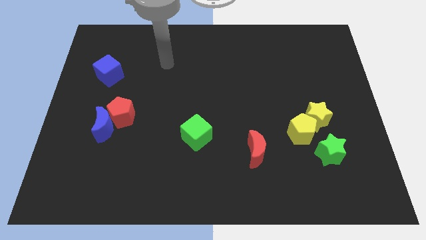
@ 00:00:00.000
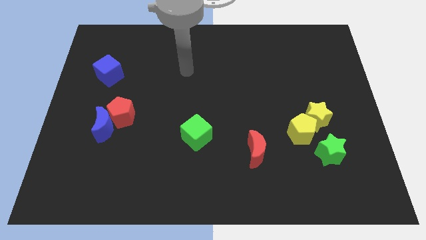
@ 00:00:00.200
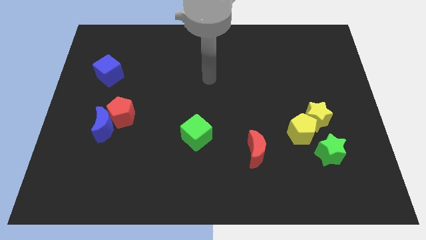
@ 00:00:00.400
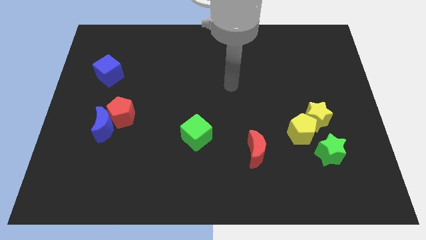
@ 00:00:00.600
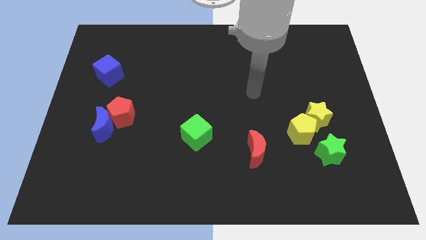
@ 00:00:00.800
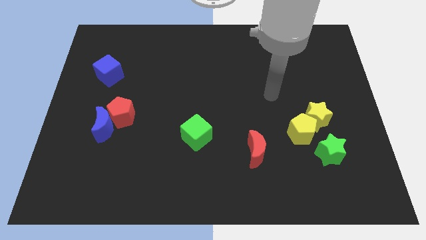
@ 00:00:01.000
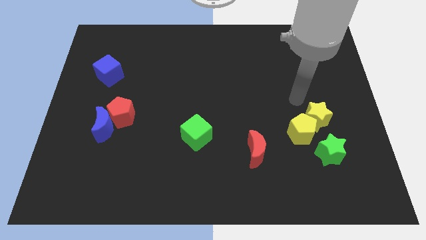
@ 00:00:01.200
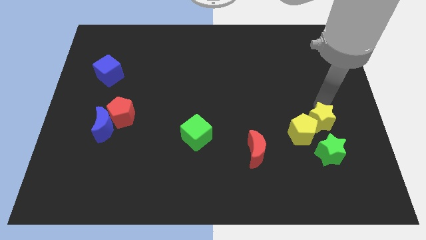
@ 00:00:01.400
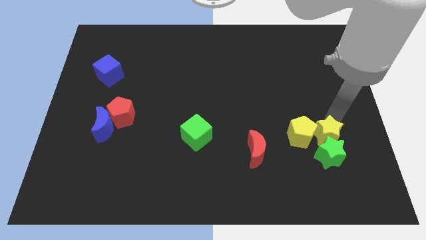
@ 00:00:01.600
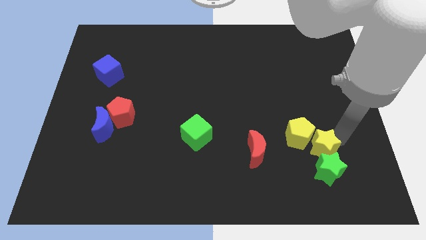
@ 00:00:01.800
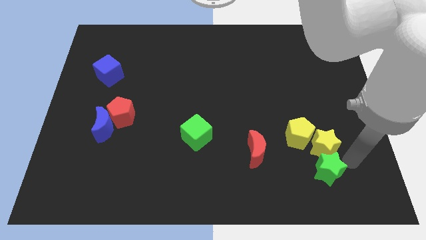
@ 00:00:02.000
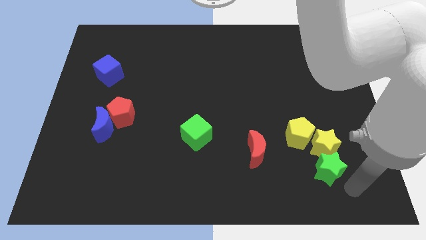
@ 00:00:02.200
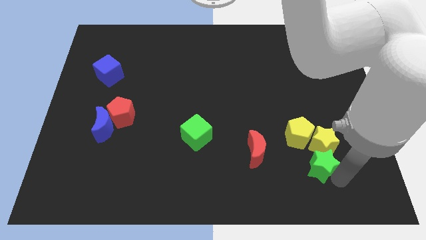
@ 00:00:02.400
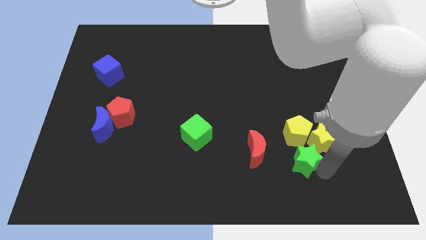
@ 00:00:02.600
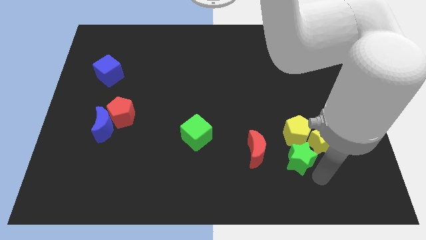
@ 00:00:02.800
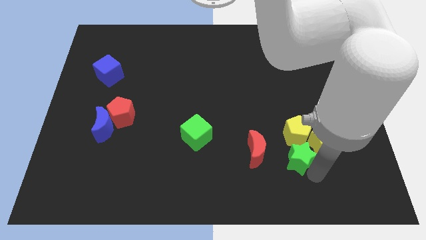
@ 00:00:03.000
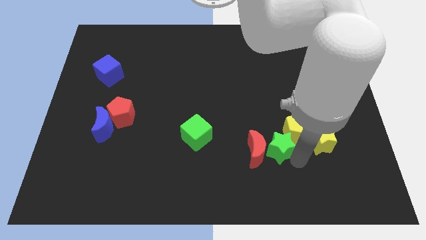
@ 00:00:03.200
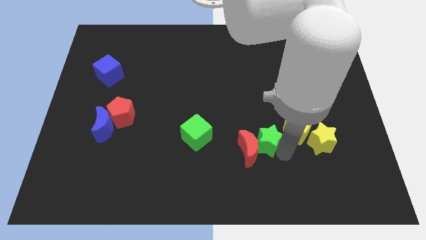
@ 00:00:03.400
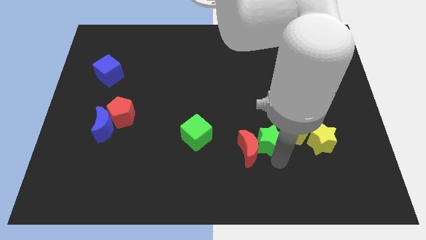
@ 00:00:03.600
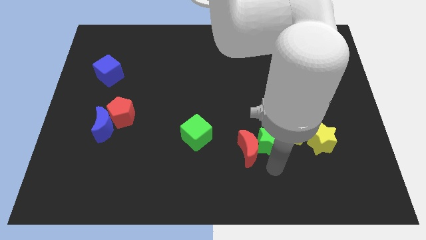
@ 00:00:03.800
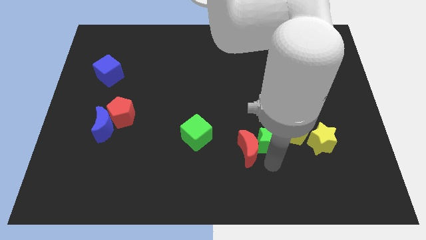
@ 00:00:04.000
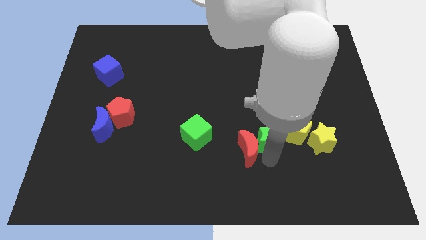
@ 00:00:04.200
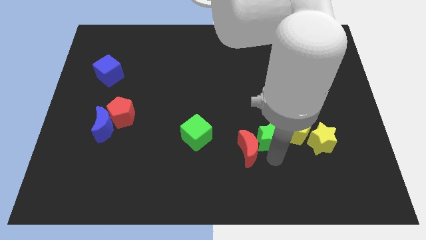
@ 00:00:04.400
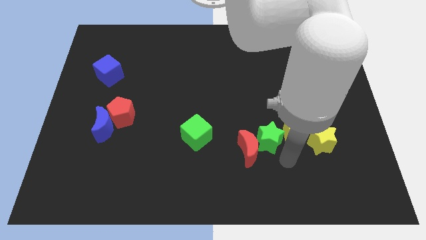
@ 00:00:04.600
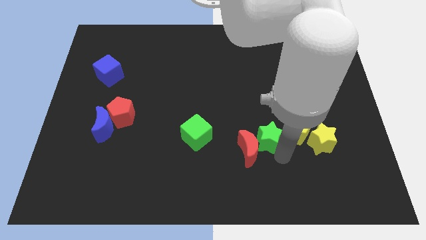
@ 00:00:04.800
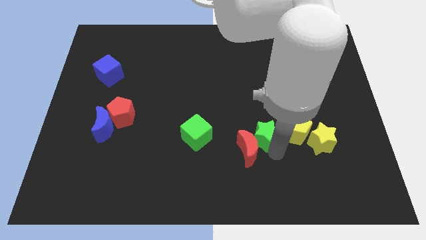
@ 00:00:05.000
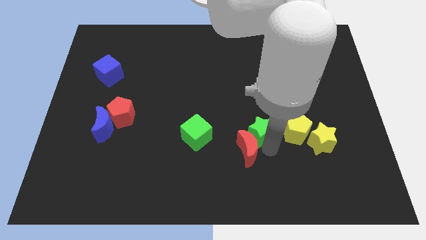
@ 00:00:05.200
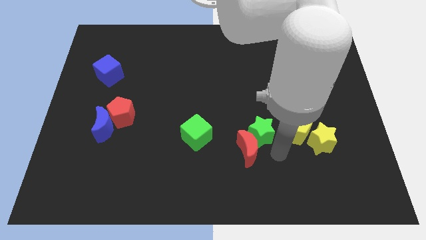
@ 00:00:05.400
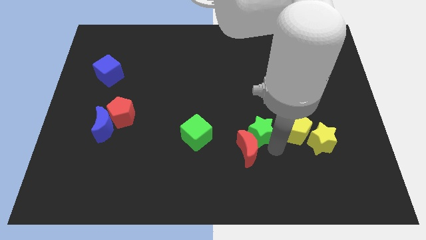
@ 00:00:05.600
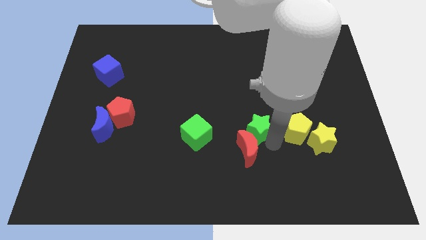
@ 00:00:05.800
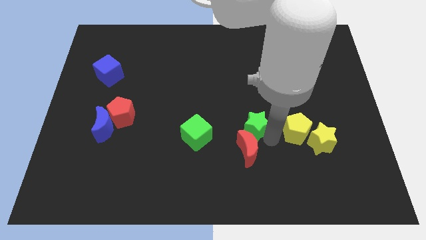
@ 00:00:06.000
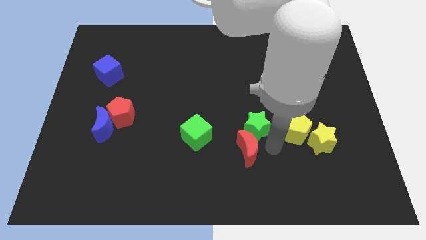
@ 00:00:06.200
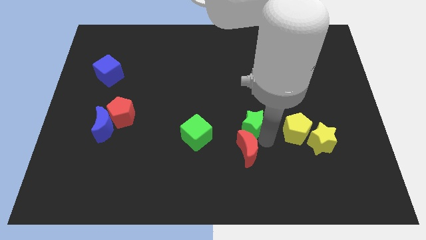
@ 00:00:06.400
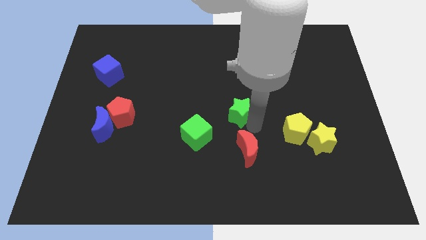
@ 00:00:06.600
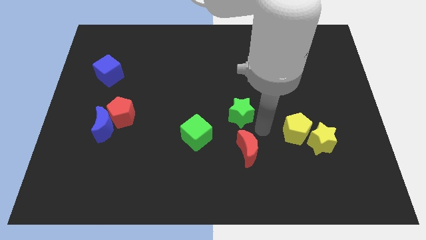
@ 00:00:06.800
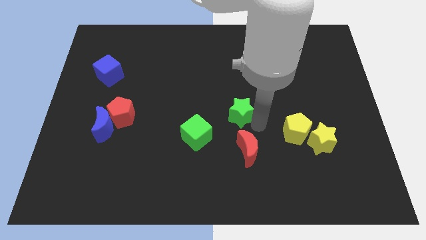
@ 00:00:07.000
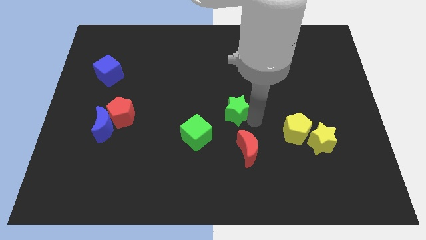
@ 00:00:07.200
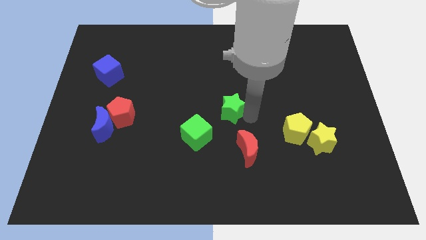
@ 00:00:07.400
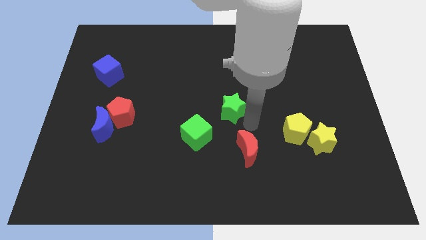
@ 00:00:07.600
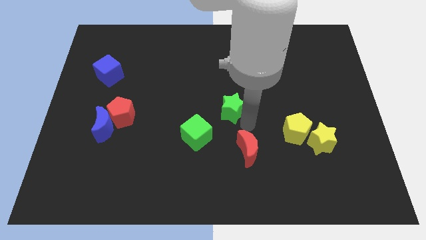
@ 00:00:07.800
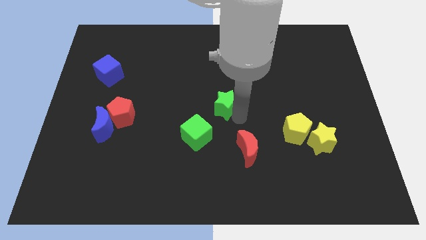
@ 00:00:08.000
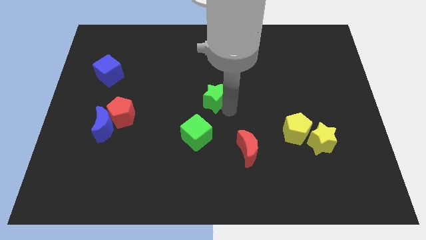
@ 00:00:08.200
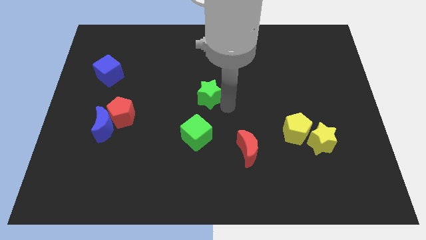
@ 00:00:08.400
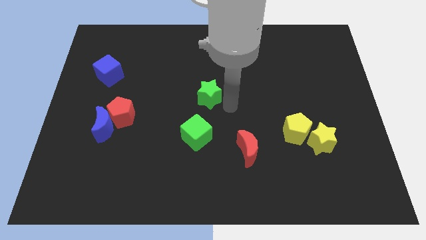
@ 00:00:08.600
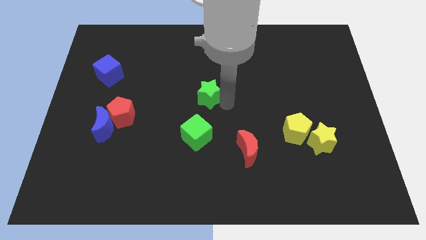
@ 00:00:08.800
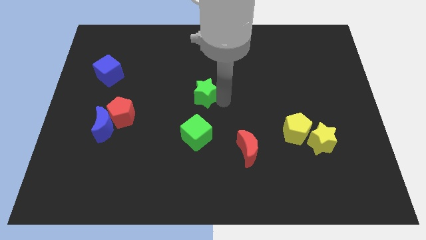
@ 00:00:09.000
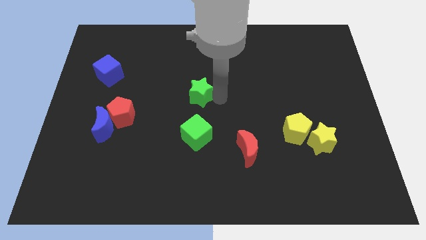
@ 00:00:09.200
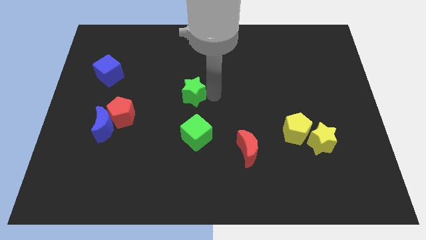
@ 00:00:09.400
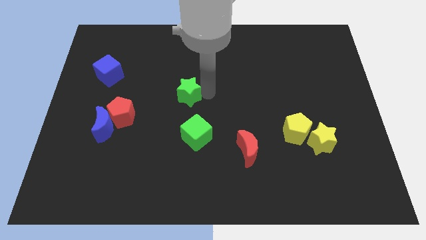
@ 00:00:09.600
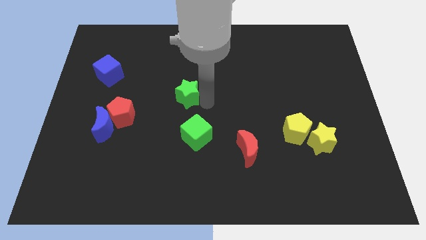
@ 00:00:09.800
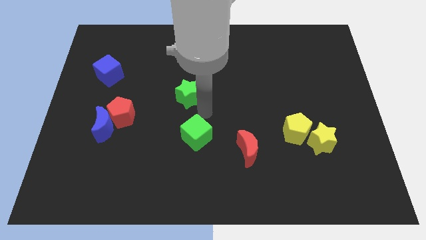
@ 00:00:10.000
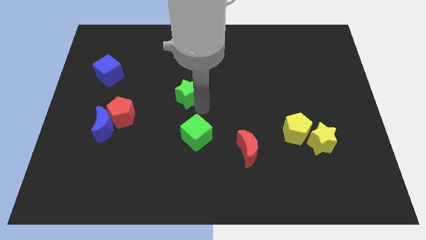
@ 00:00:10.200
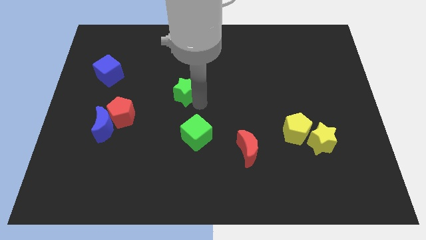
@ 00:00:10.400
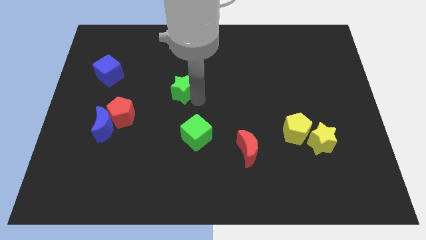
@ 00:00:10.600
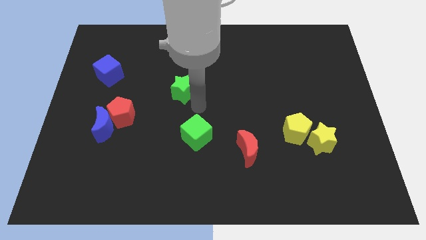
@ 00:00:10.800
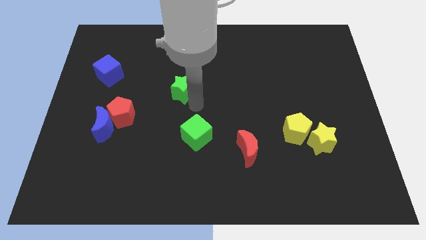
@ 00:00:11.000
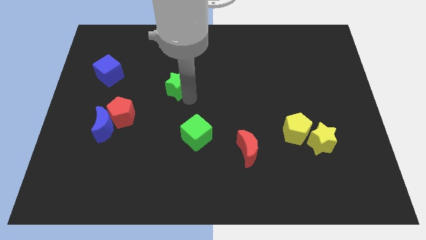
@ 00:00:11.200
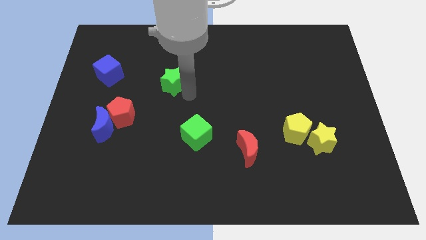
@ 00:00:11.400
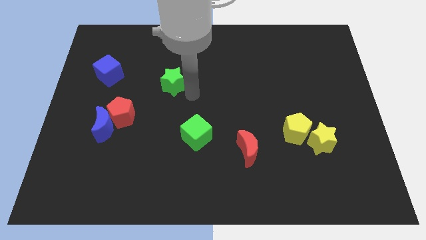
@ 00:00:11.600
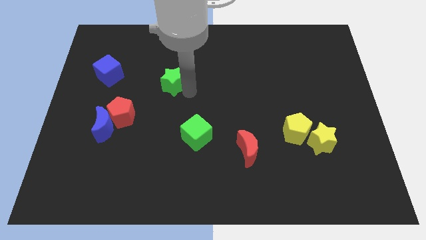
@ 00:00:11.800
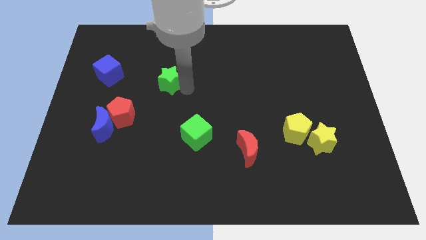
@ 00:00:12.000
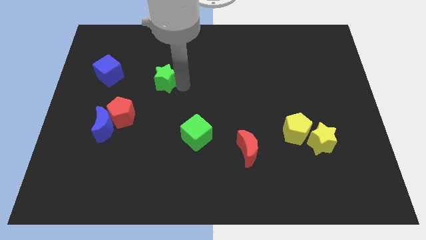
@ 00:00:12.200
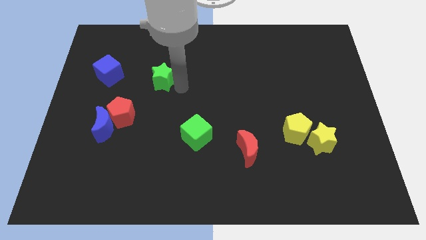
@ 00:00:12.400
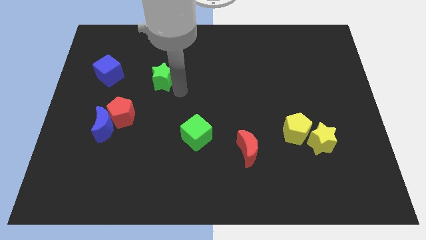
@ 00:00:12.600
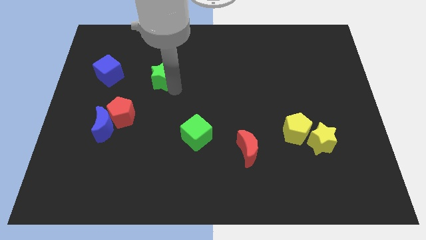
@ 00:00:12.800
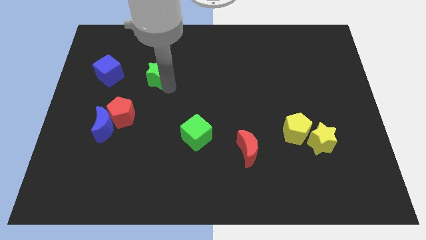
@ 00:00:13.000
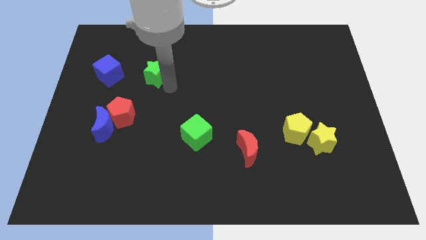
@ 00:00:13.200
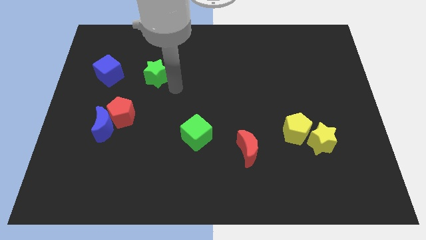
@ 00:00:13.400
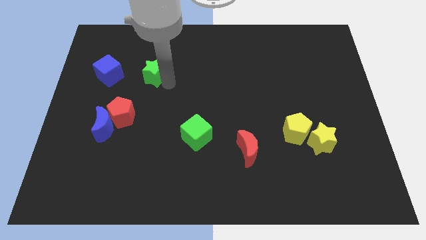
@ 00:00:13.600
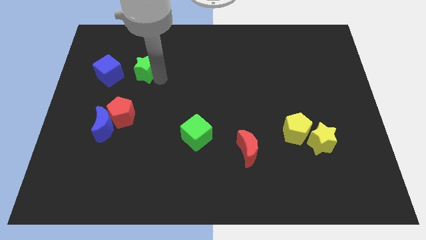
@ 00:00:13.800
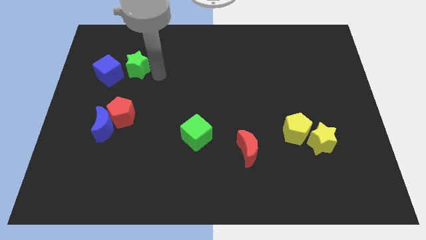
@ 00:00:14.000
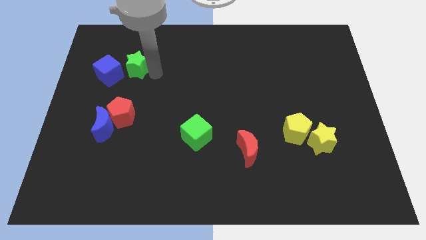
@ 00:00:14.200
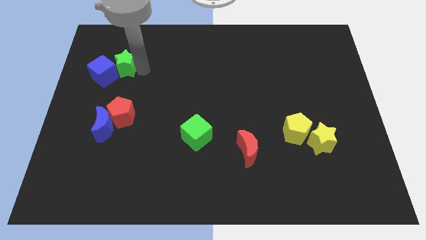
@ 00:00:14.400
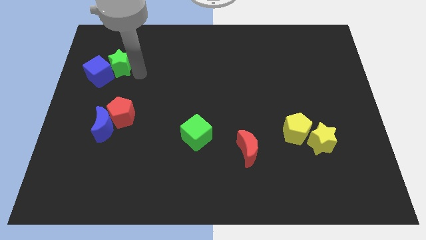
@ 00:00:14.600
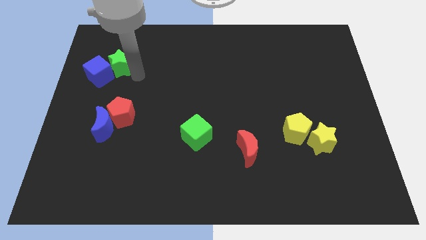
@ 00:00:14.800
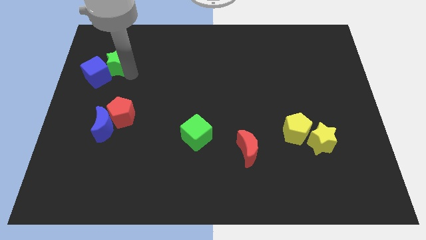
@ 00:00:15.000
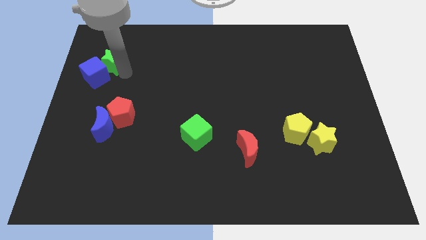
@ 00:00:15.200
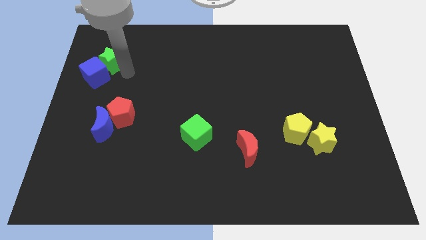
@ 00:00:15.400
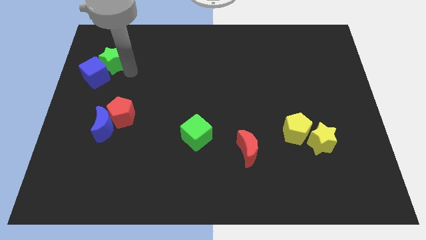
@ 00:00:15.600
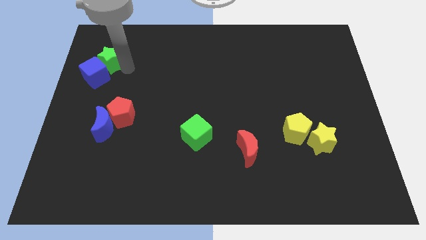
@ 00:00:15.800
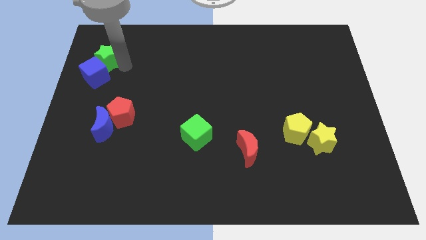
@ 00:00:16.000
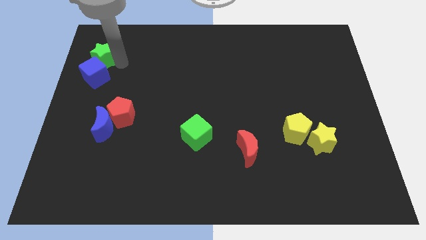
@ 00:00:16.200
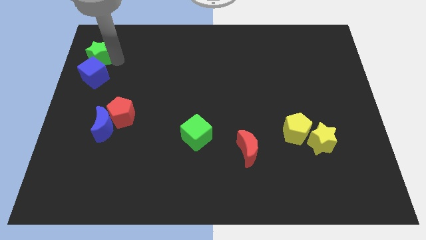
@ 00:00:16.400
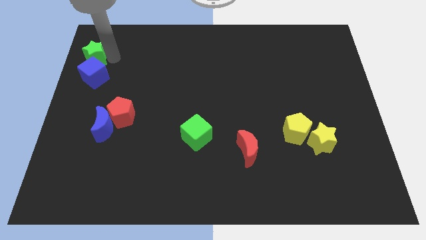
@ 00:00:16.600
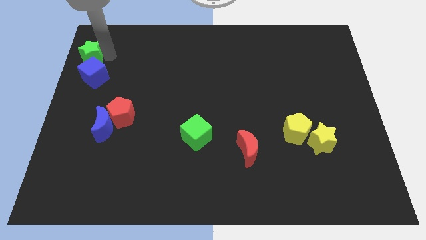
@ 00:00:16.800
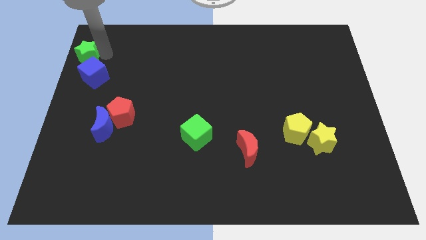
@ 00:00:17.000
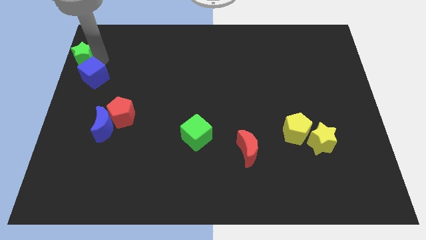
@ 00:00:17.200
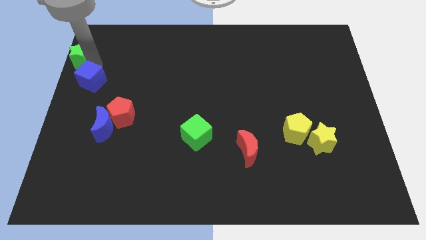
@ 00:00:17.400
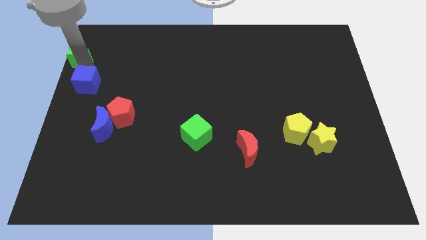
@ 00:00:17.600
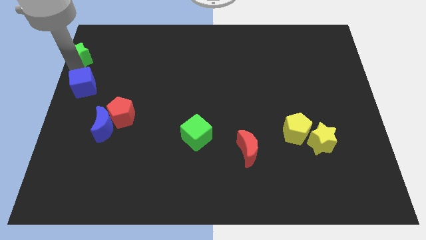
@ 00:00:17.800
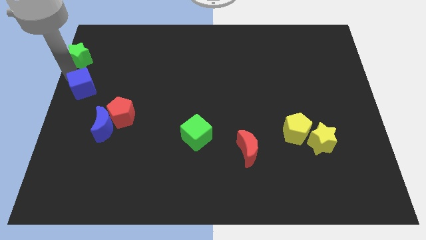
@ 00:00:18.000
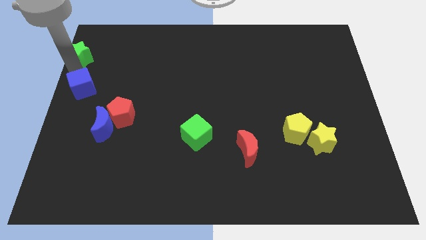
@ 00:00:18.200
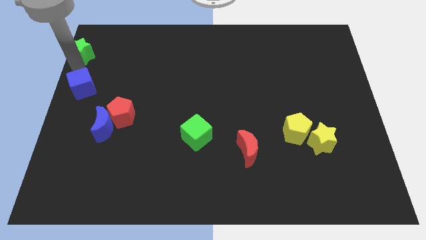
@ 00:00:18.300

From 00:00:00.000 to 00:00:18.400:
slide the green star to the top left corner
